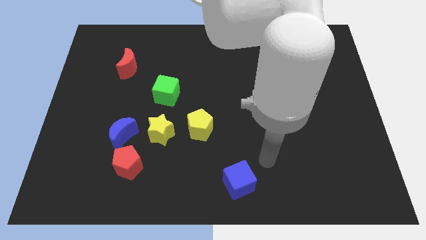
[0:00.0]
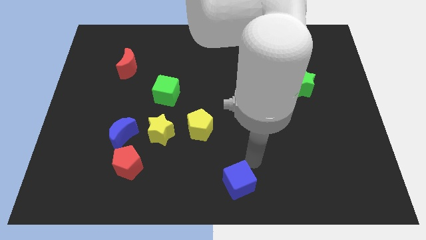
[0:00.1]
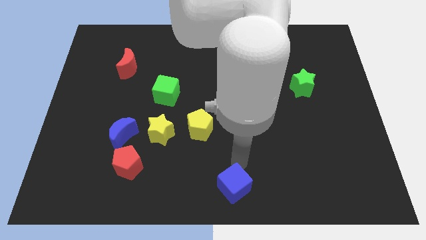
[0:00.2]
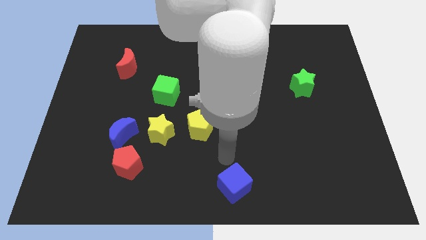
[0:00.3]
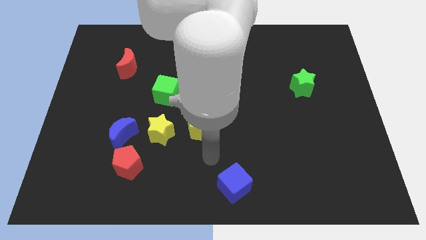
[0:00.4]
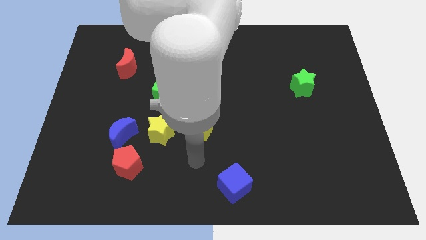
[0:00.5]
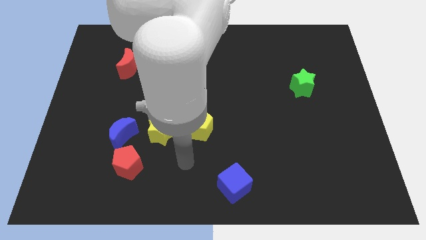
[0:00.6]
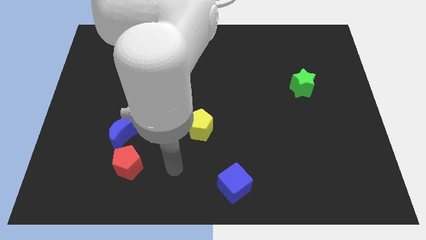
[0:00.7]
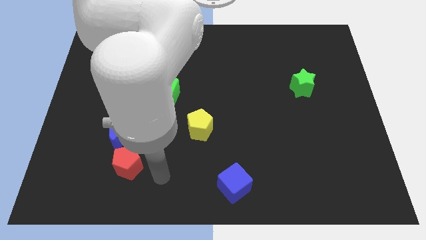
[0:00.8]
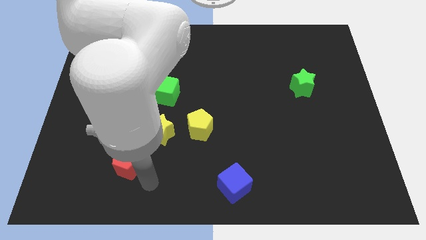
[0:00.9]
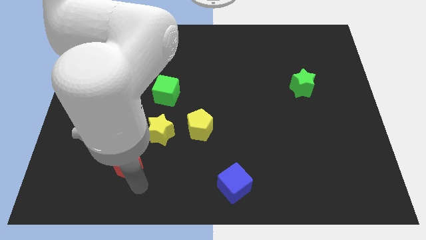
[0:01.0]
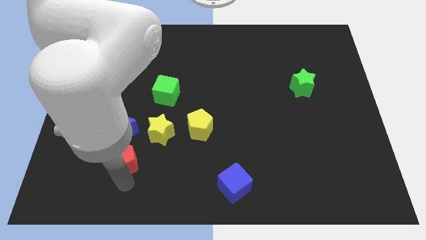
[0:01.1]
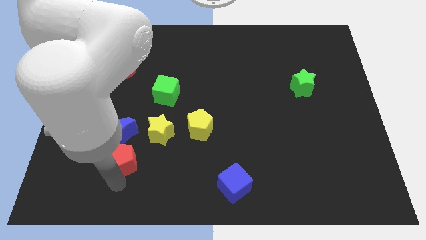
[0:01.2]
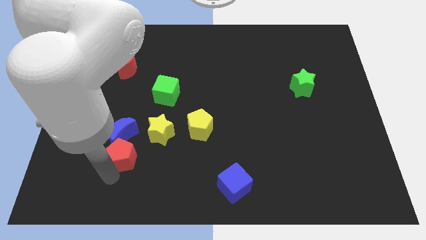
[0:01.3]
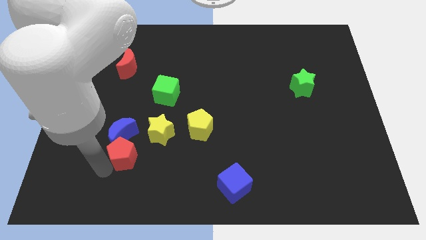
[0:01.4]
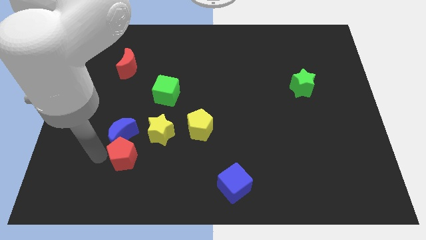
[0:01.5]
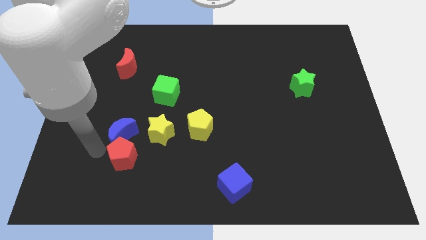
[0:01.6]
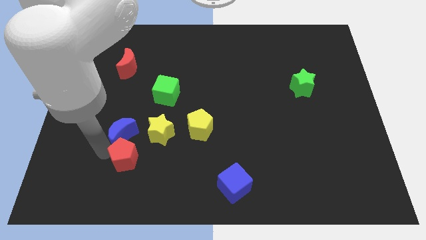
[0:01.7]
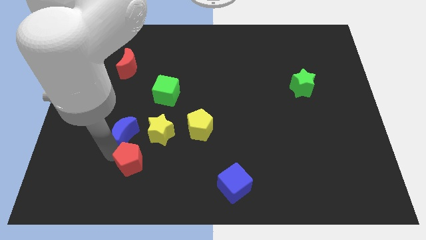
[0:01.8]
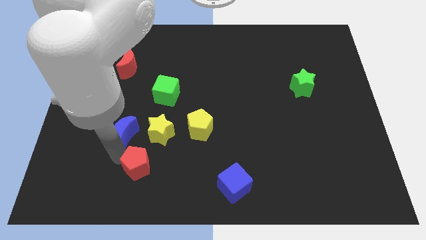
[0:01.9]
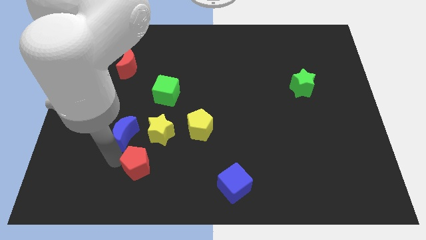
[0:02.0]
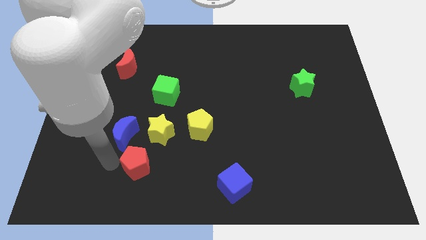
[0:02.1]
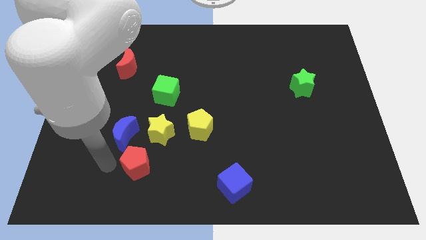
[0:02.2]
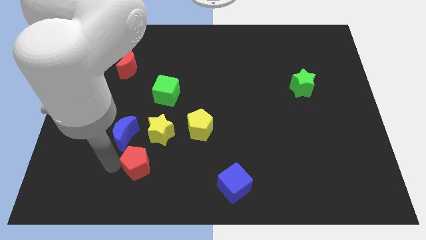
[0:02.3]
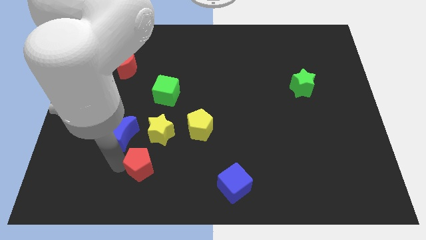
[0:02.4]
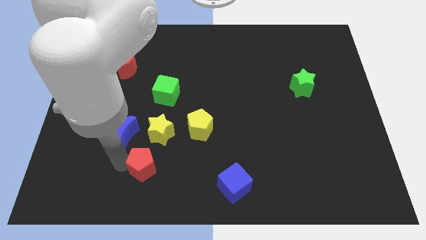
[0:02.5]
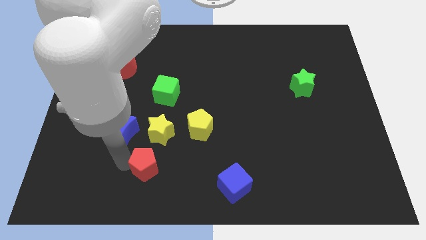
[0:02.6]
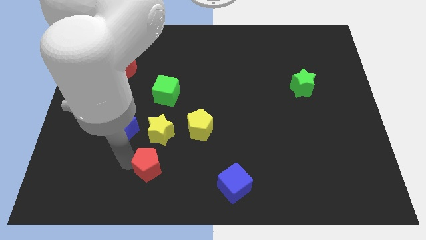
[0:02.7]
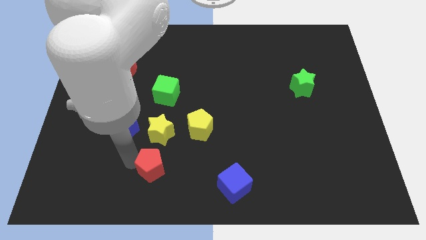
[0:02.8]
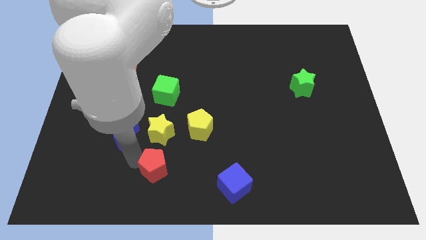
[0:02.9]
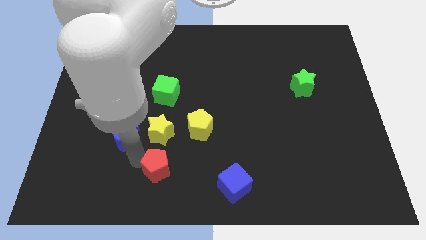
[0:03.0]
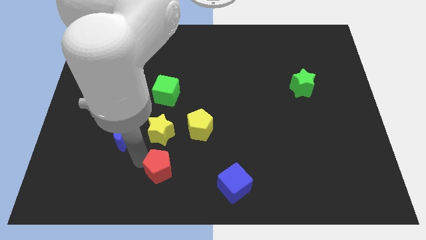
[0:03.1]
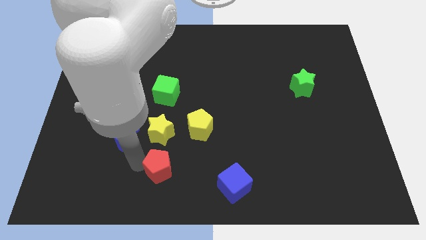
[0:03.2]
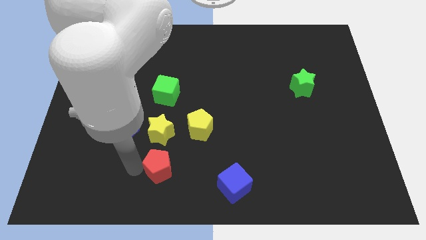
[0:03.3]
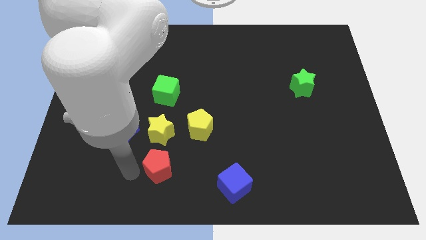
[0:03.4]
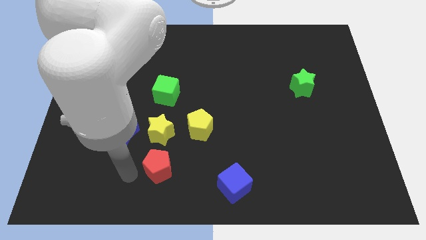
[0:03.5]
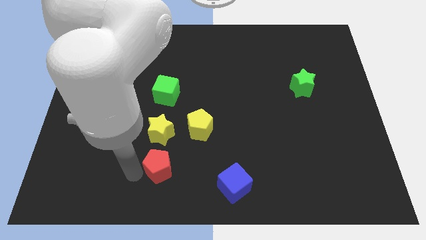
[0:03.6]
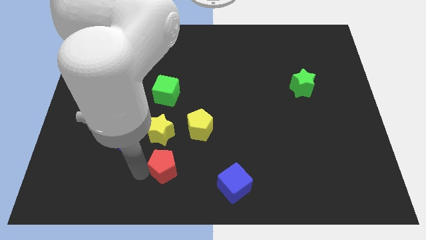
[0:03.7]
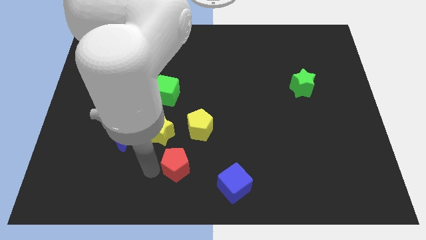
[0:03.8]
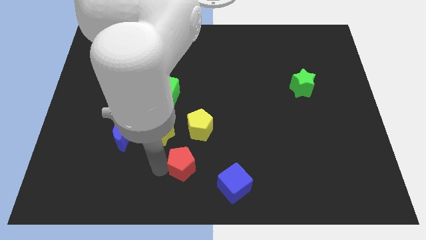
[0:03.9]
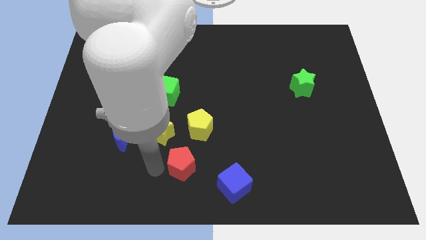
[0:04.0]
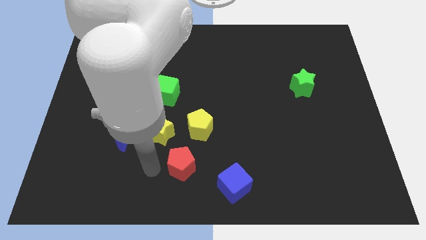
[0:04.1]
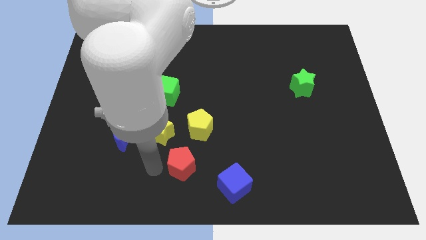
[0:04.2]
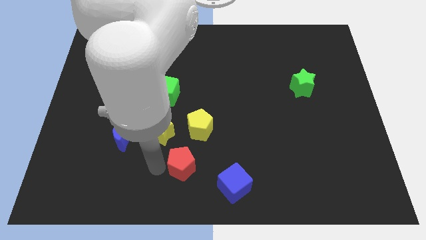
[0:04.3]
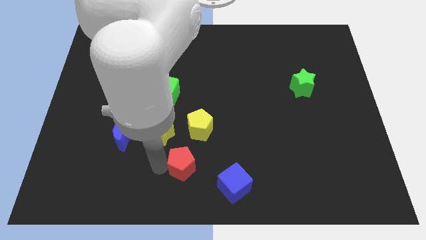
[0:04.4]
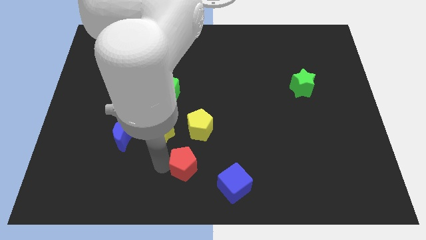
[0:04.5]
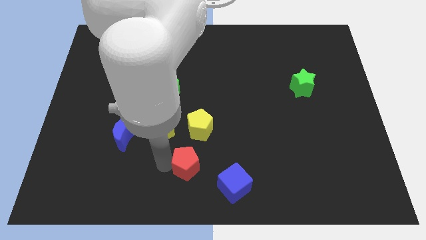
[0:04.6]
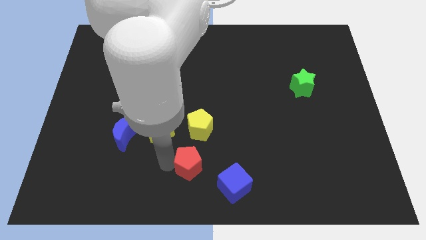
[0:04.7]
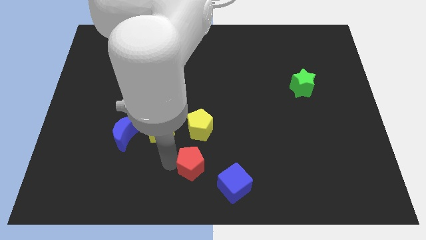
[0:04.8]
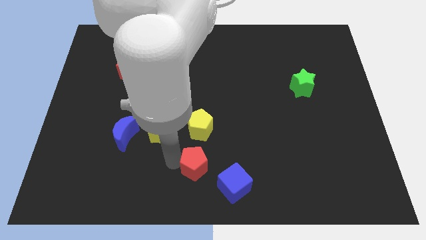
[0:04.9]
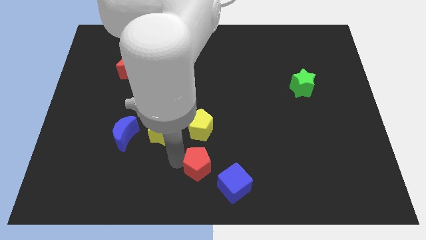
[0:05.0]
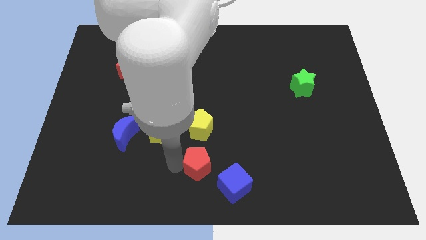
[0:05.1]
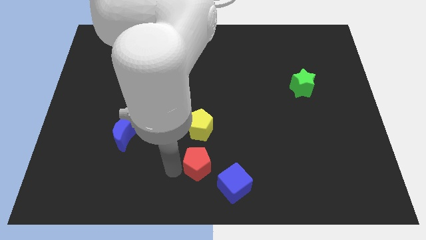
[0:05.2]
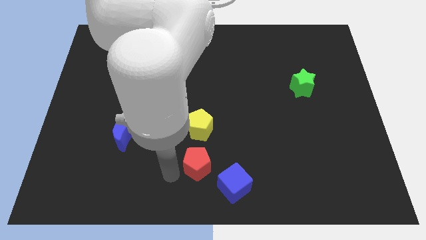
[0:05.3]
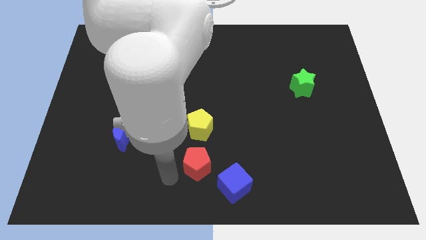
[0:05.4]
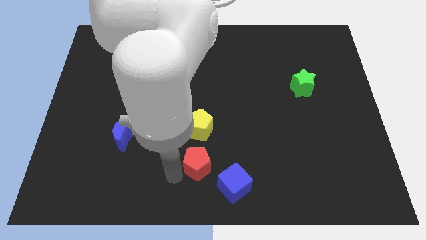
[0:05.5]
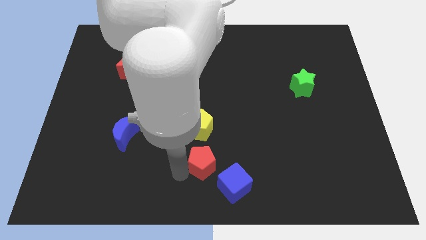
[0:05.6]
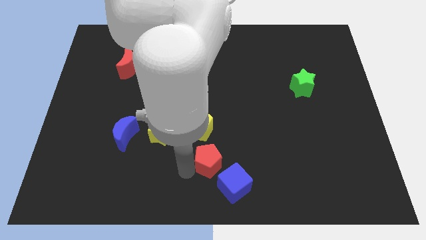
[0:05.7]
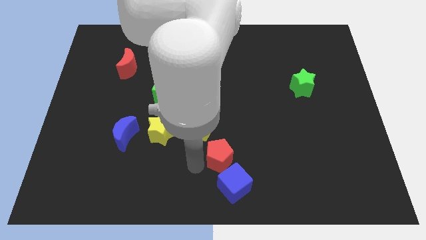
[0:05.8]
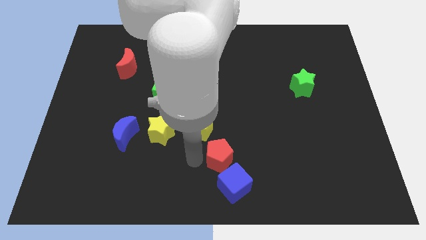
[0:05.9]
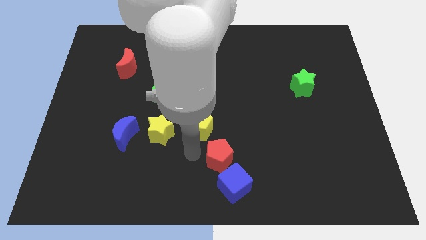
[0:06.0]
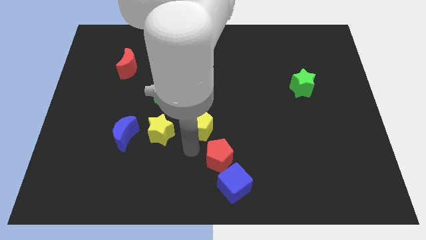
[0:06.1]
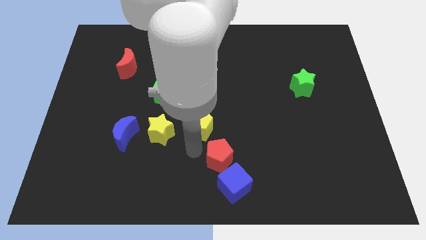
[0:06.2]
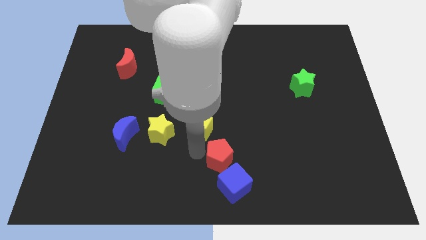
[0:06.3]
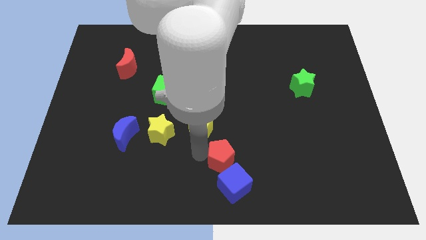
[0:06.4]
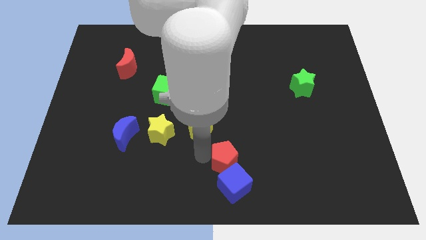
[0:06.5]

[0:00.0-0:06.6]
move the red pentagon to the right

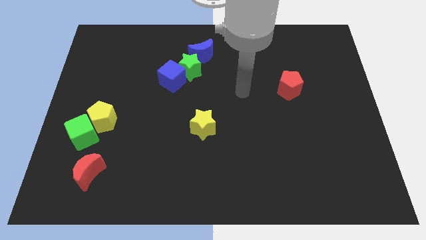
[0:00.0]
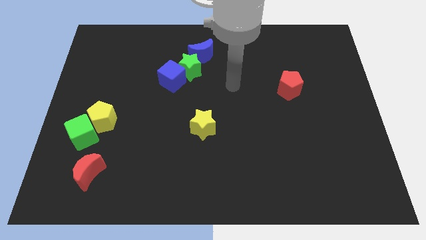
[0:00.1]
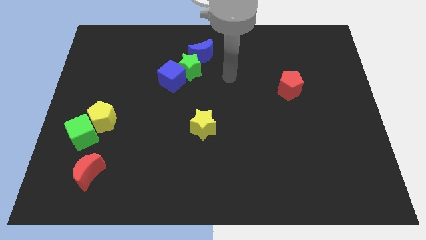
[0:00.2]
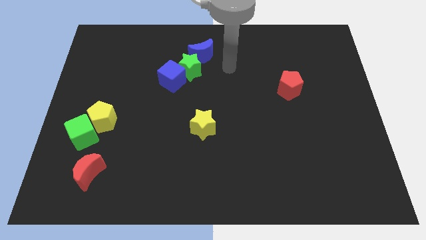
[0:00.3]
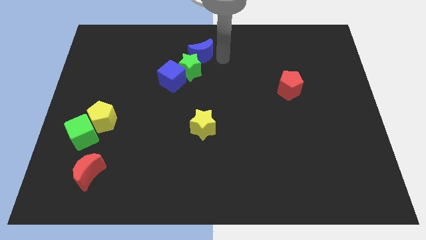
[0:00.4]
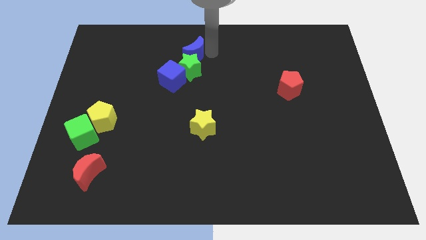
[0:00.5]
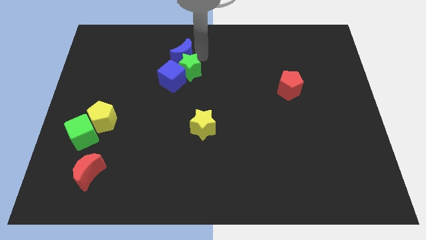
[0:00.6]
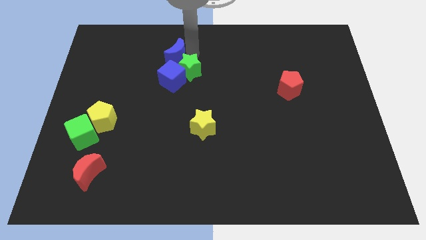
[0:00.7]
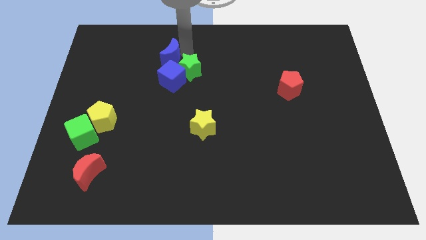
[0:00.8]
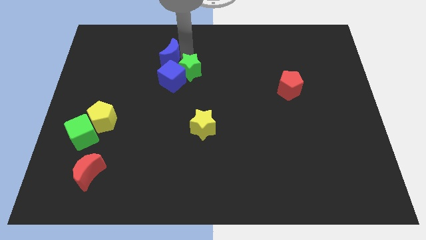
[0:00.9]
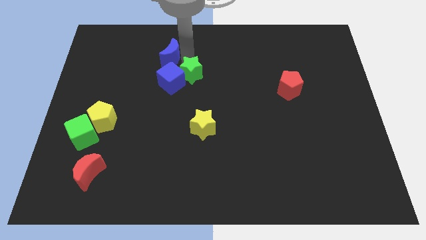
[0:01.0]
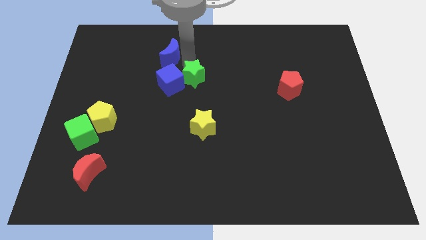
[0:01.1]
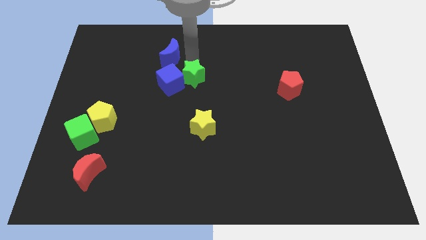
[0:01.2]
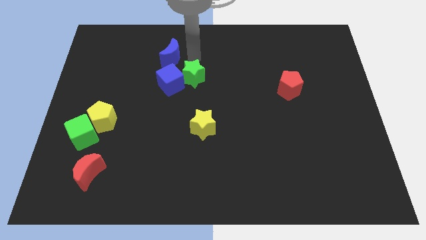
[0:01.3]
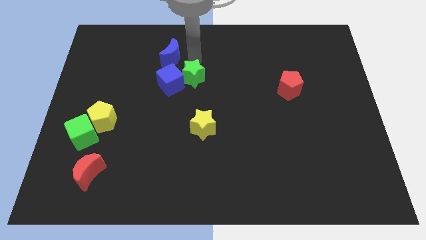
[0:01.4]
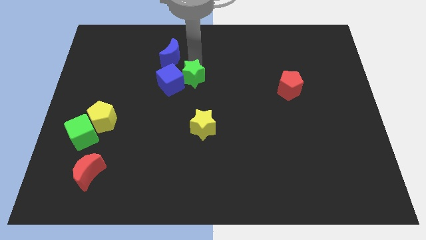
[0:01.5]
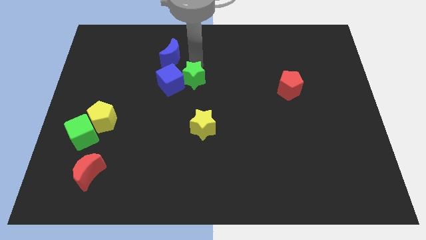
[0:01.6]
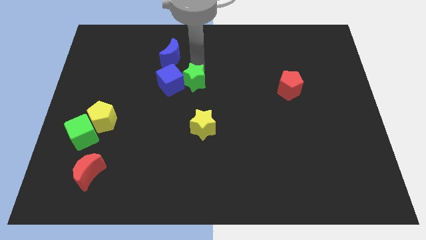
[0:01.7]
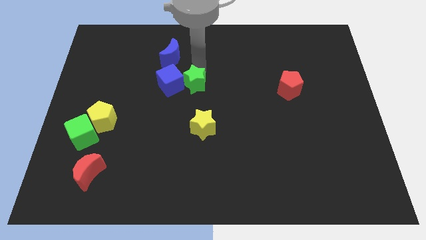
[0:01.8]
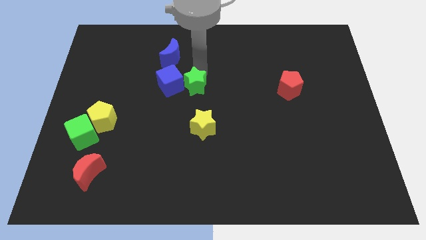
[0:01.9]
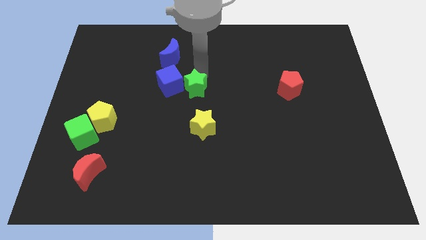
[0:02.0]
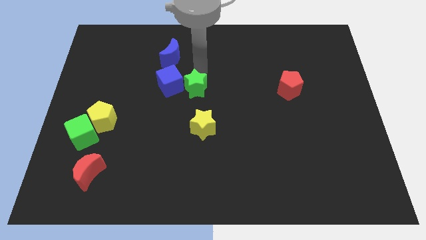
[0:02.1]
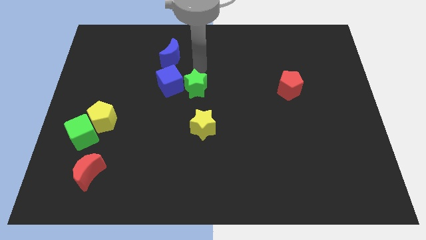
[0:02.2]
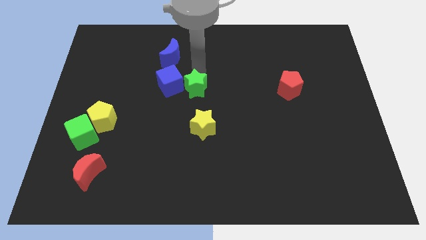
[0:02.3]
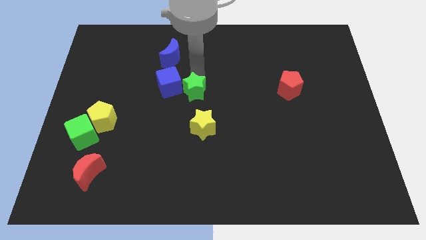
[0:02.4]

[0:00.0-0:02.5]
slightly push the green star down
